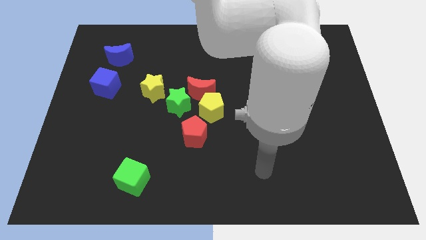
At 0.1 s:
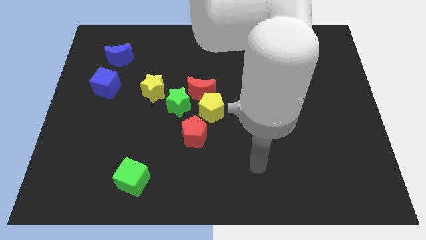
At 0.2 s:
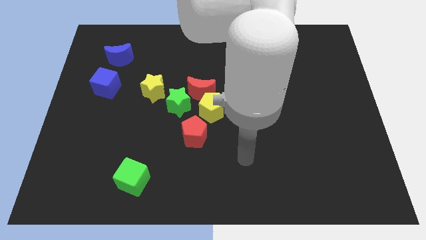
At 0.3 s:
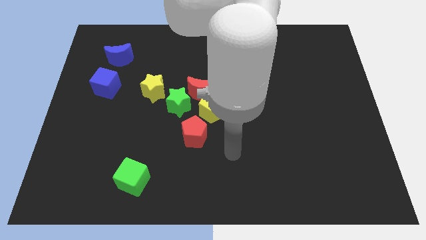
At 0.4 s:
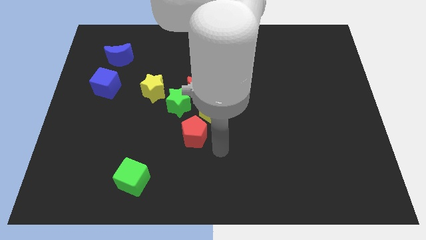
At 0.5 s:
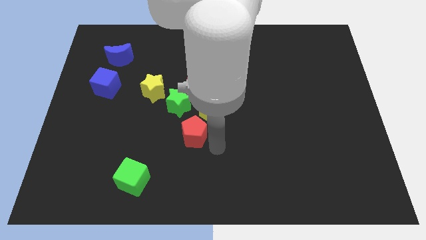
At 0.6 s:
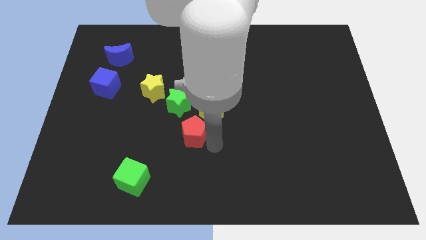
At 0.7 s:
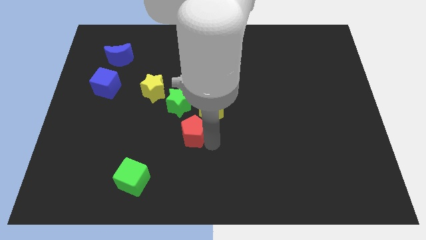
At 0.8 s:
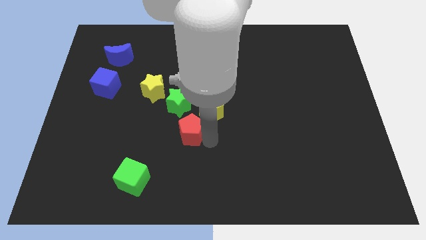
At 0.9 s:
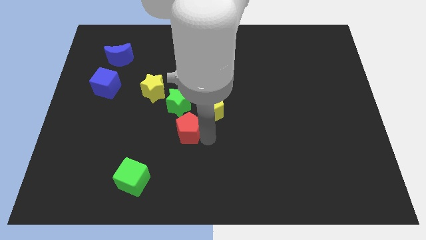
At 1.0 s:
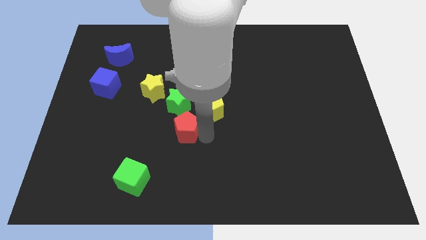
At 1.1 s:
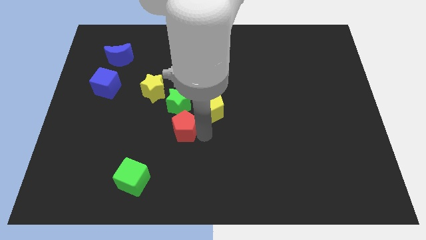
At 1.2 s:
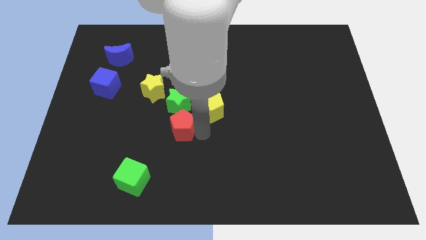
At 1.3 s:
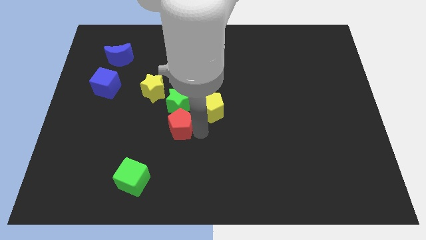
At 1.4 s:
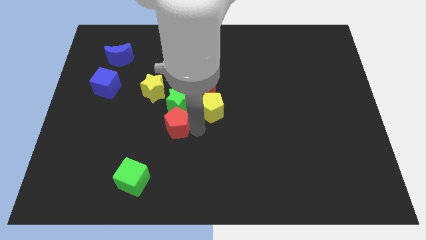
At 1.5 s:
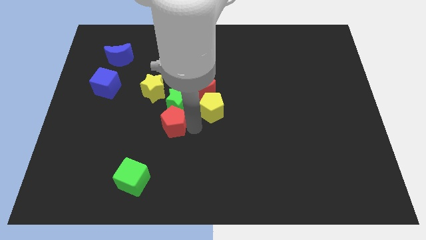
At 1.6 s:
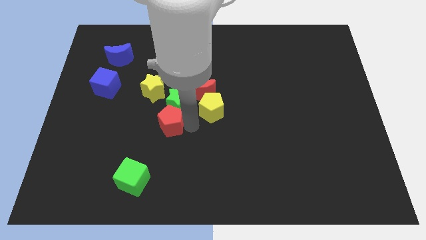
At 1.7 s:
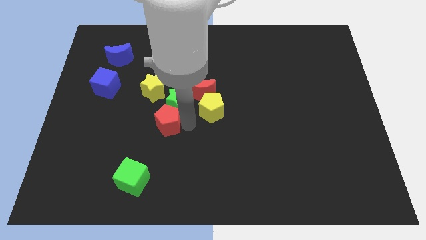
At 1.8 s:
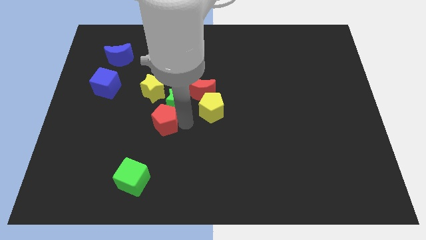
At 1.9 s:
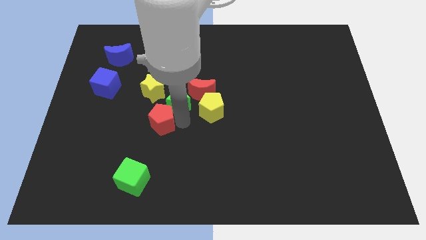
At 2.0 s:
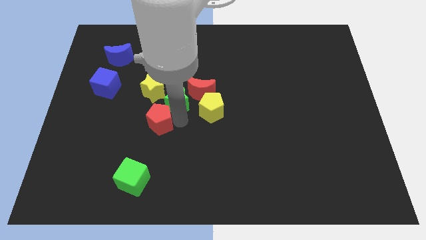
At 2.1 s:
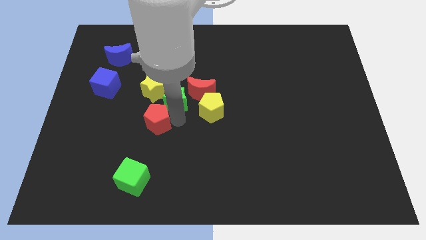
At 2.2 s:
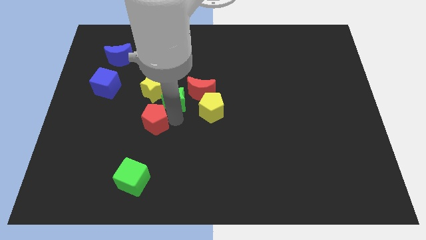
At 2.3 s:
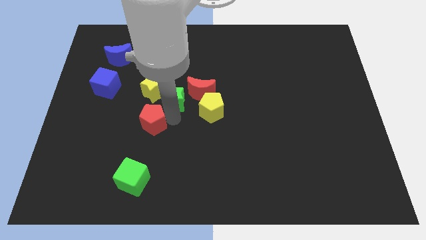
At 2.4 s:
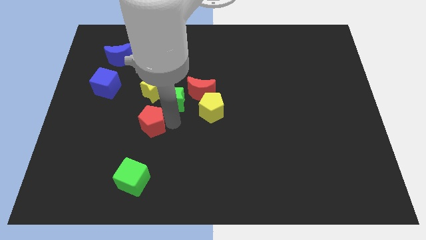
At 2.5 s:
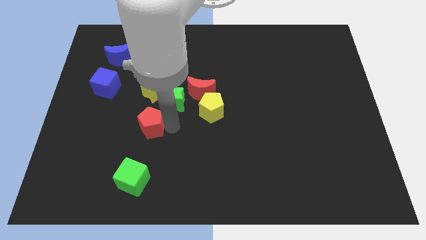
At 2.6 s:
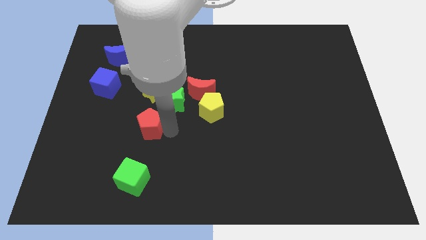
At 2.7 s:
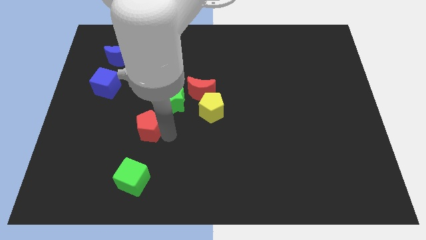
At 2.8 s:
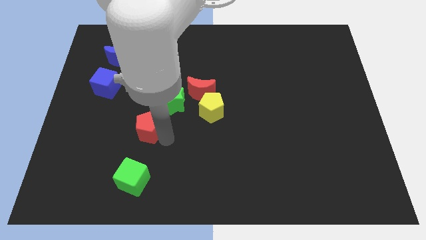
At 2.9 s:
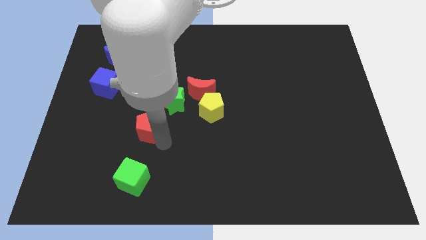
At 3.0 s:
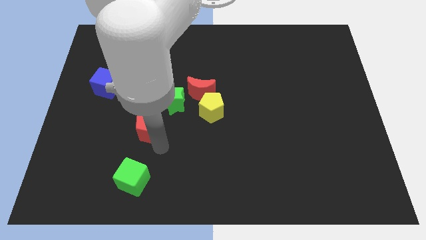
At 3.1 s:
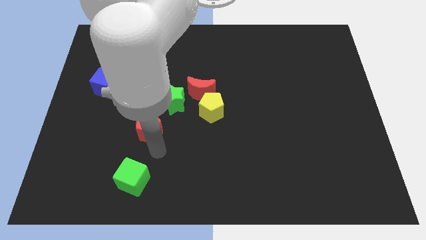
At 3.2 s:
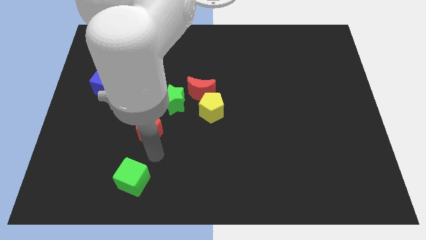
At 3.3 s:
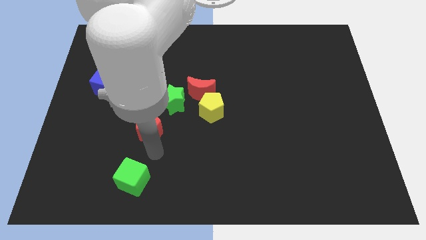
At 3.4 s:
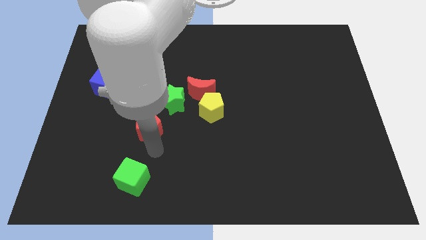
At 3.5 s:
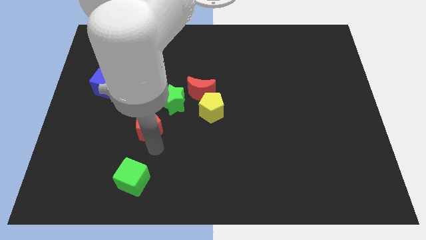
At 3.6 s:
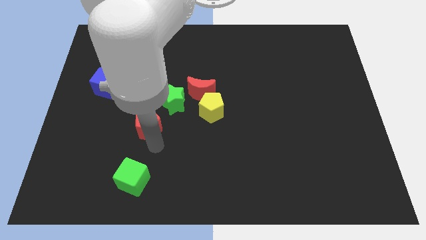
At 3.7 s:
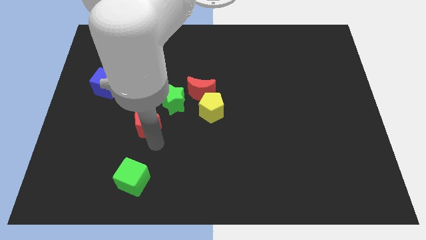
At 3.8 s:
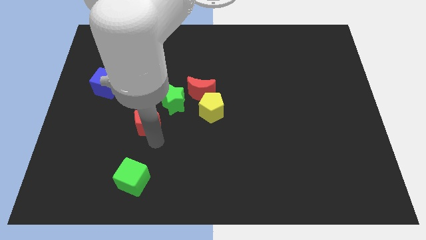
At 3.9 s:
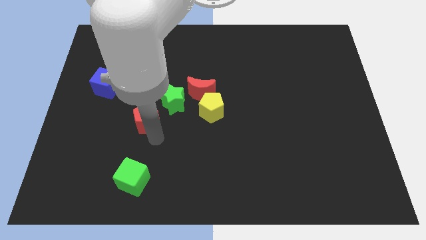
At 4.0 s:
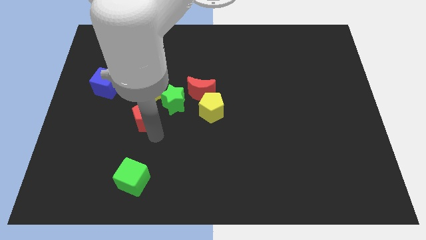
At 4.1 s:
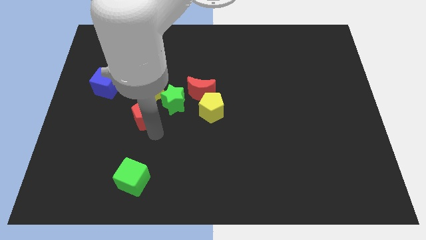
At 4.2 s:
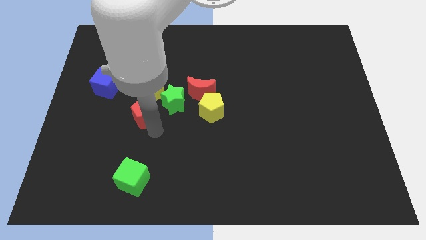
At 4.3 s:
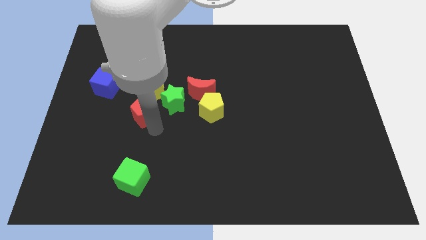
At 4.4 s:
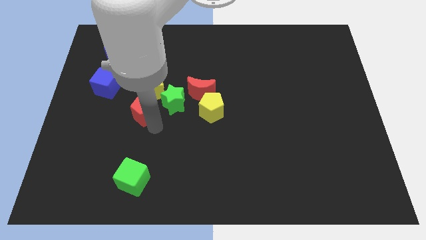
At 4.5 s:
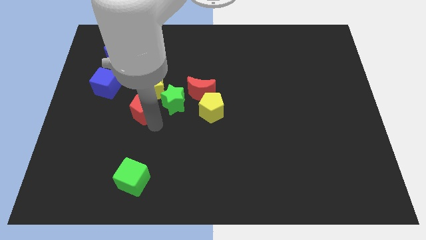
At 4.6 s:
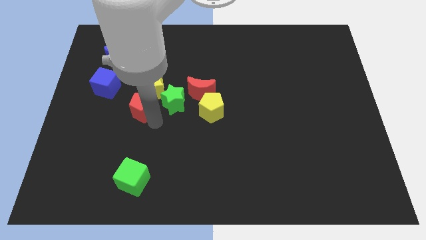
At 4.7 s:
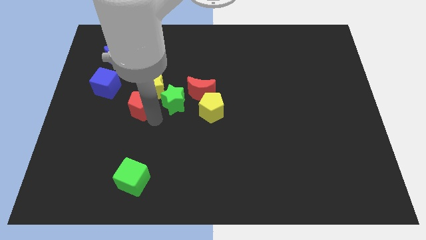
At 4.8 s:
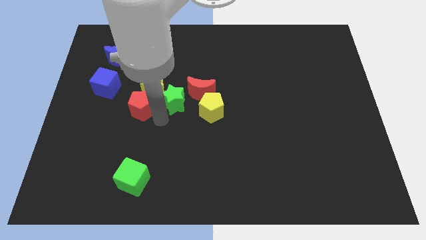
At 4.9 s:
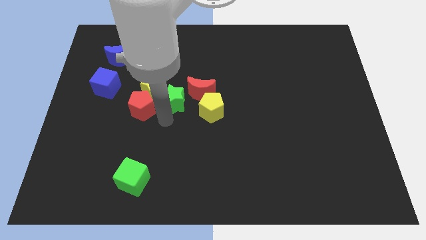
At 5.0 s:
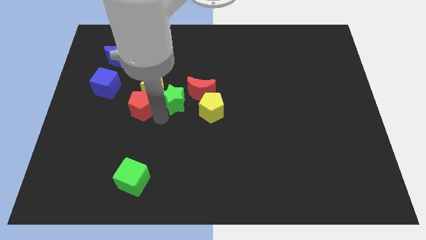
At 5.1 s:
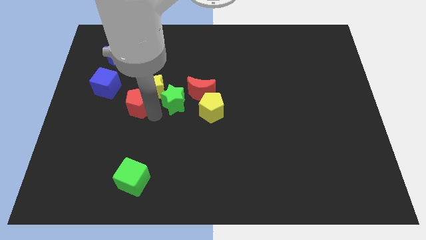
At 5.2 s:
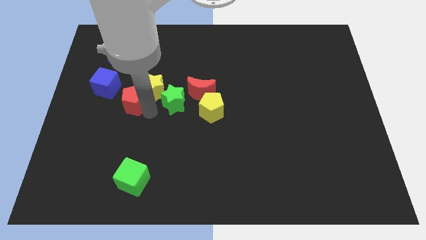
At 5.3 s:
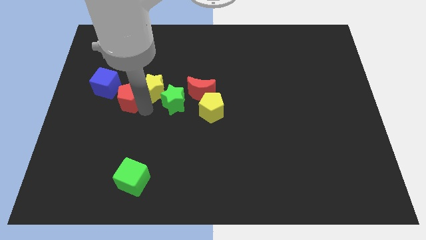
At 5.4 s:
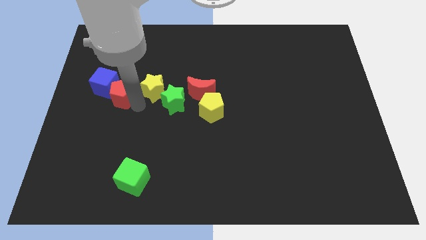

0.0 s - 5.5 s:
slide the red pentagon close to the blue cube
